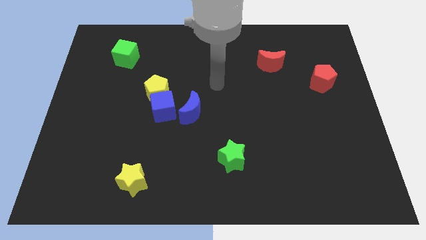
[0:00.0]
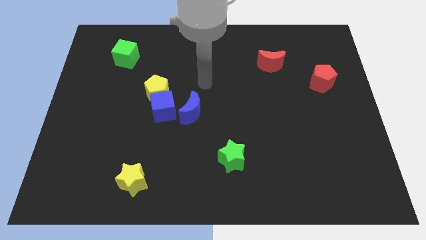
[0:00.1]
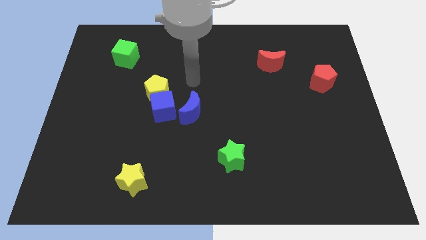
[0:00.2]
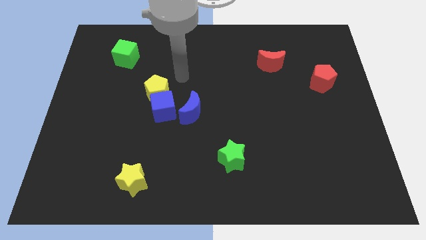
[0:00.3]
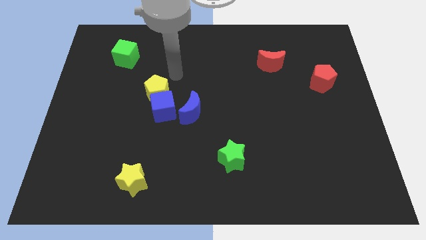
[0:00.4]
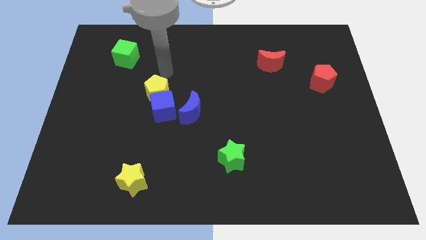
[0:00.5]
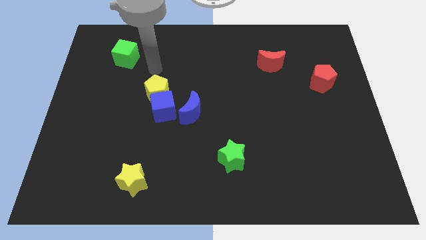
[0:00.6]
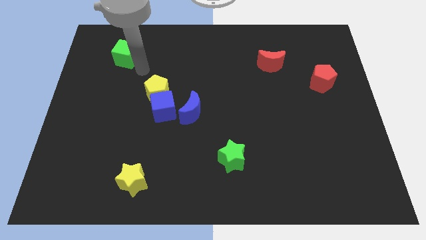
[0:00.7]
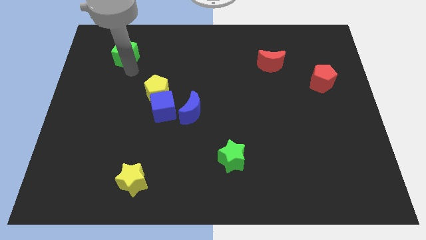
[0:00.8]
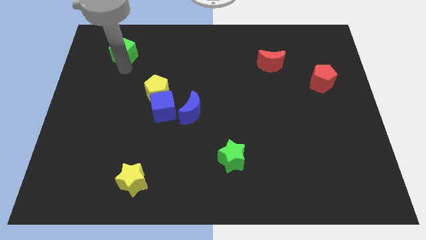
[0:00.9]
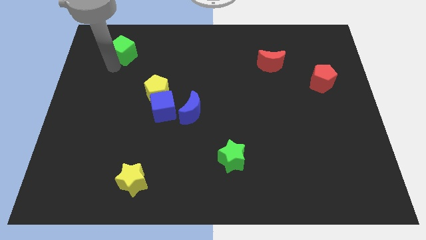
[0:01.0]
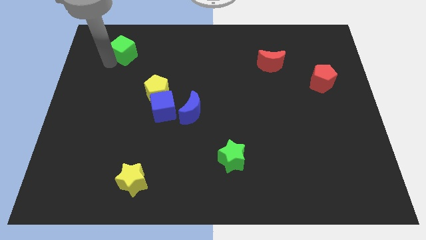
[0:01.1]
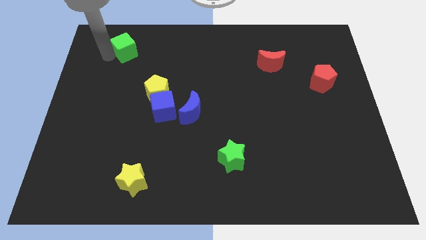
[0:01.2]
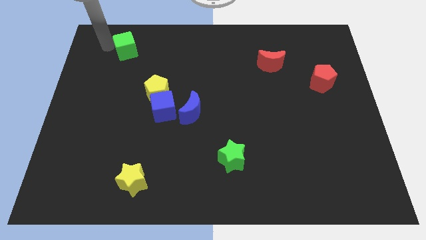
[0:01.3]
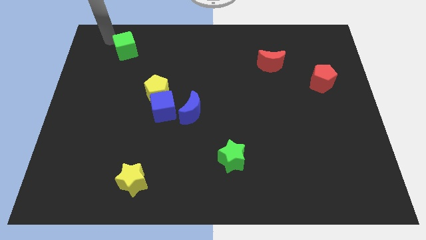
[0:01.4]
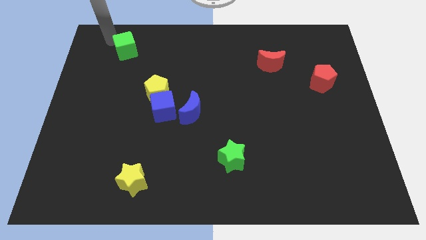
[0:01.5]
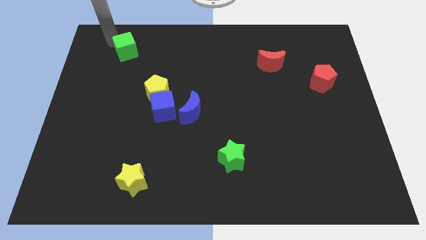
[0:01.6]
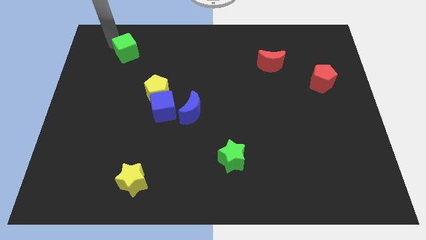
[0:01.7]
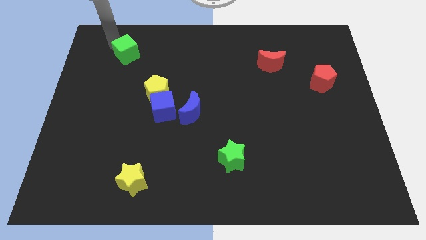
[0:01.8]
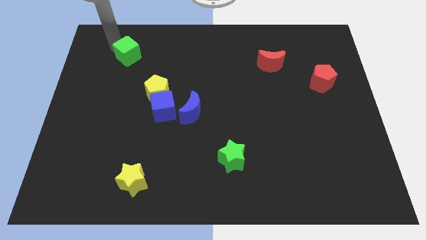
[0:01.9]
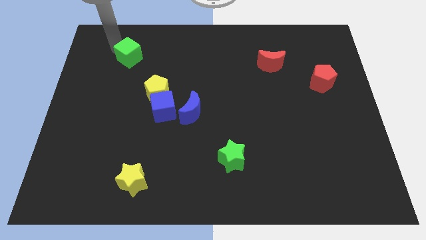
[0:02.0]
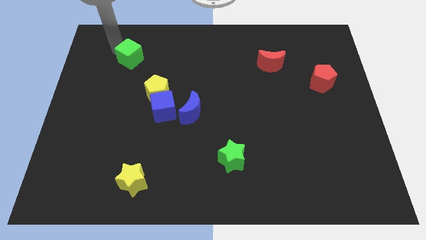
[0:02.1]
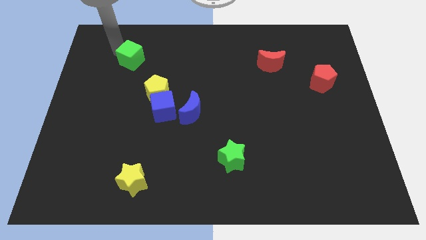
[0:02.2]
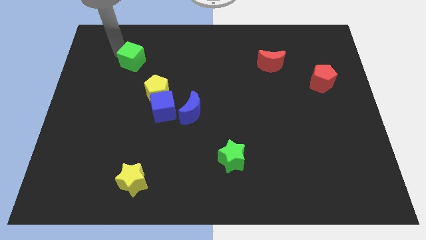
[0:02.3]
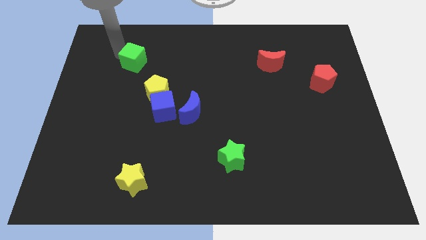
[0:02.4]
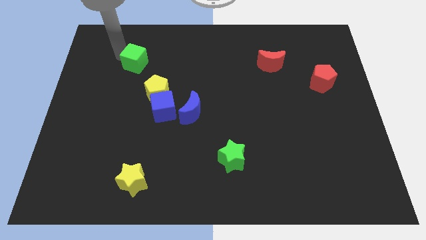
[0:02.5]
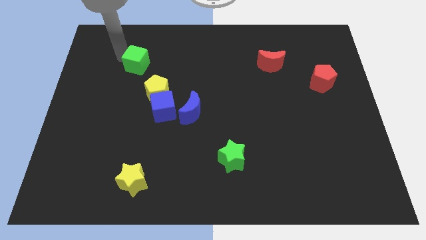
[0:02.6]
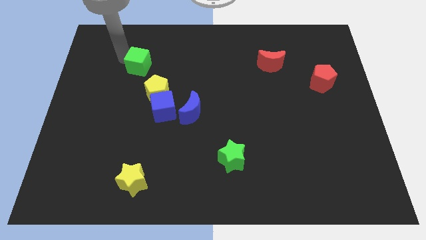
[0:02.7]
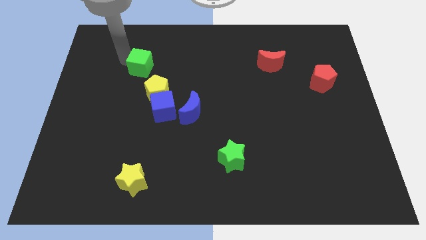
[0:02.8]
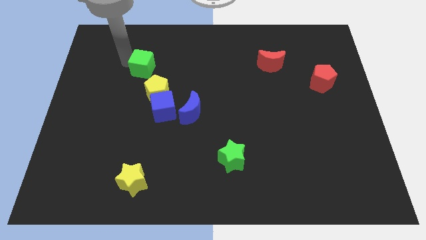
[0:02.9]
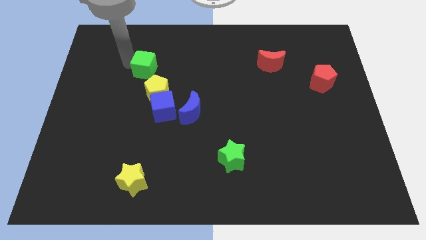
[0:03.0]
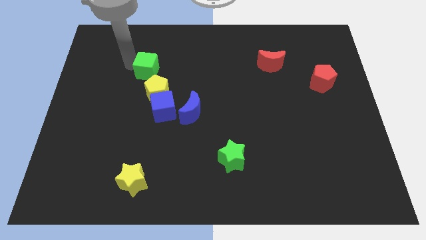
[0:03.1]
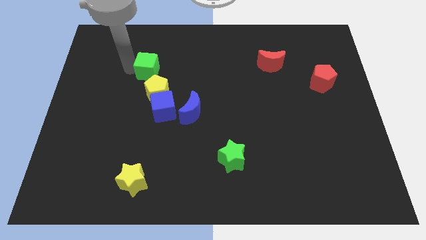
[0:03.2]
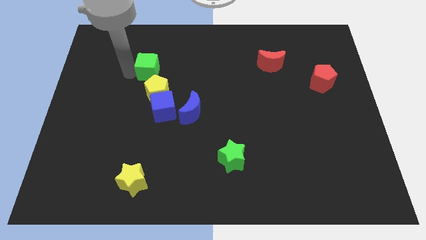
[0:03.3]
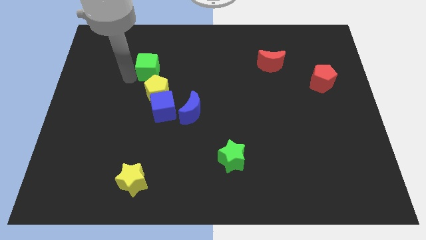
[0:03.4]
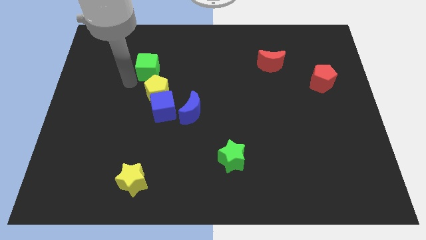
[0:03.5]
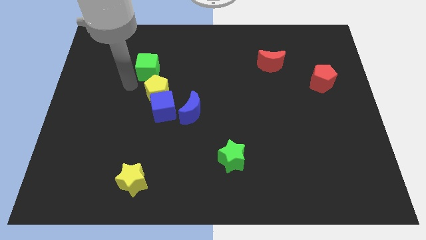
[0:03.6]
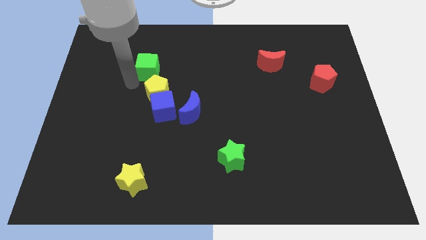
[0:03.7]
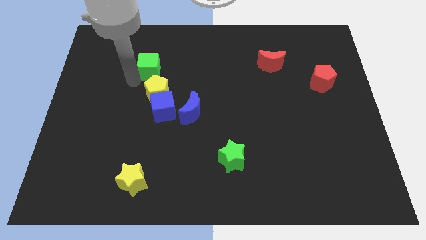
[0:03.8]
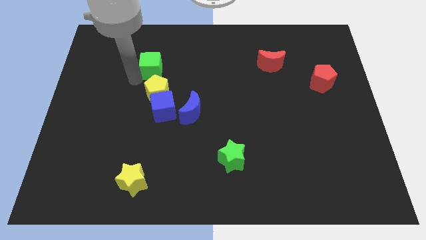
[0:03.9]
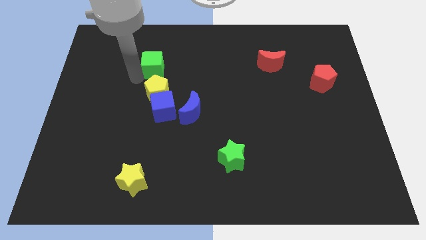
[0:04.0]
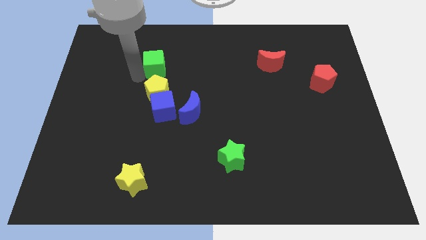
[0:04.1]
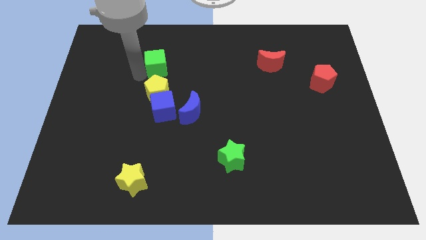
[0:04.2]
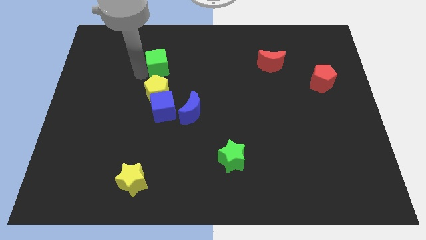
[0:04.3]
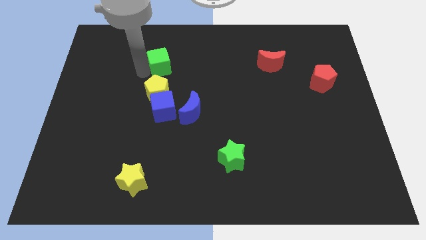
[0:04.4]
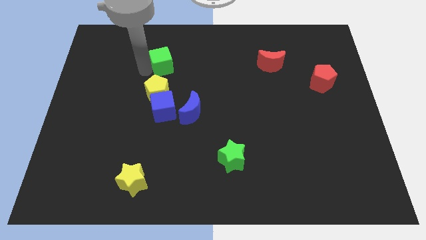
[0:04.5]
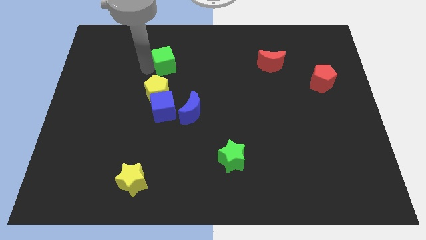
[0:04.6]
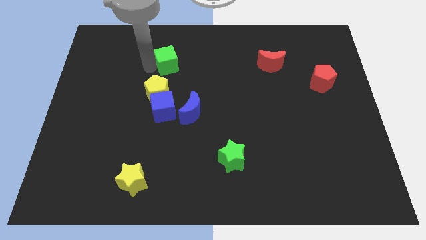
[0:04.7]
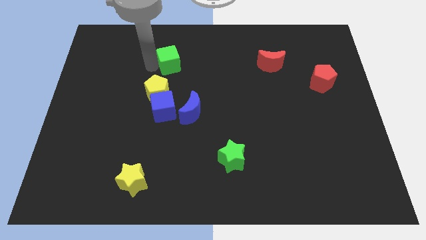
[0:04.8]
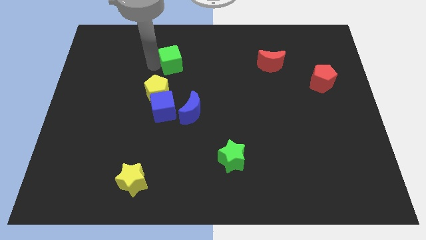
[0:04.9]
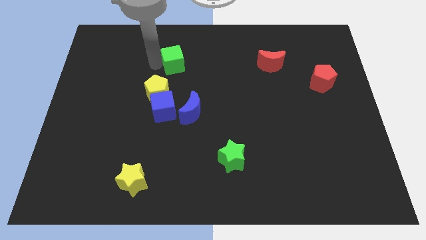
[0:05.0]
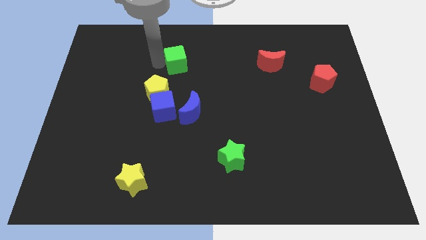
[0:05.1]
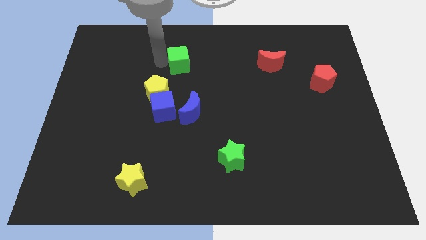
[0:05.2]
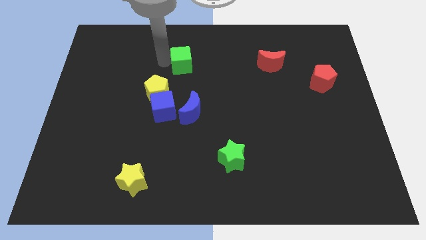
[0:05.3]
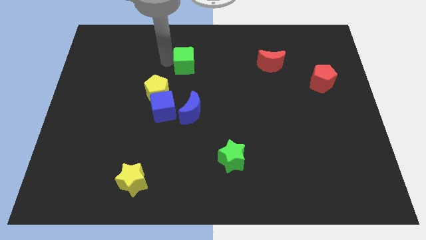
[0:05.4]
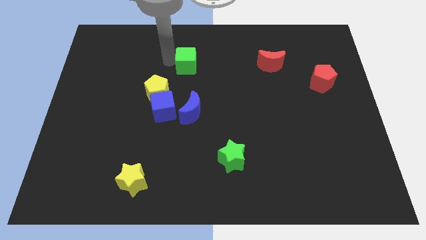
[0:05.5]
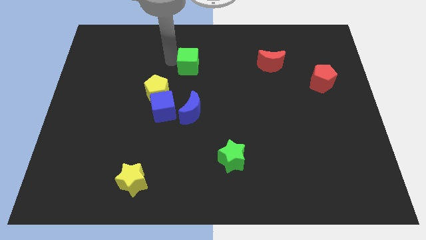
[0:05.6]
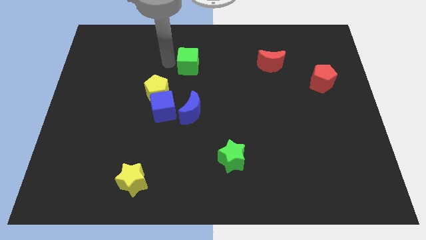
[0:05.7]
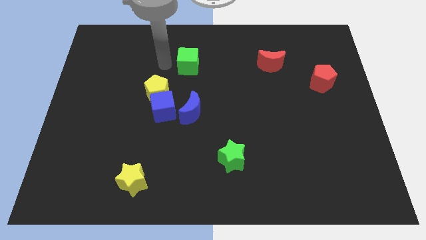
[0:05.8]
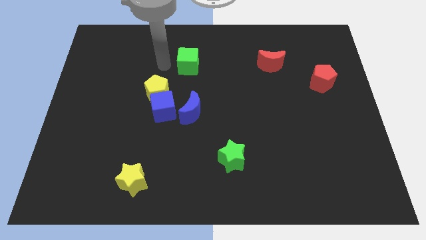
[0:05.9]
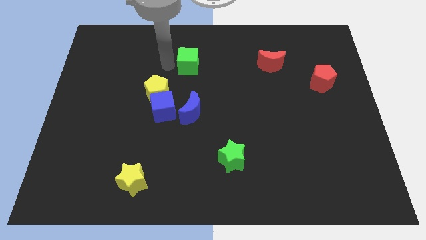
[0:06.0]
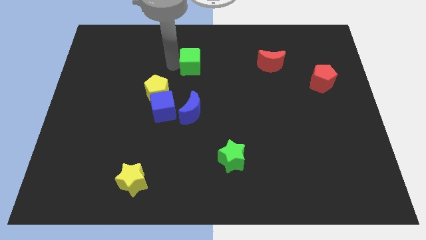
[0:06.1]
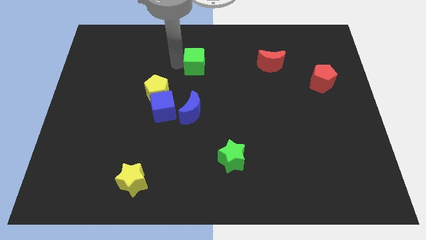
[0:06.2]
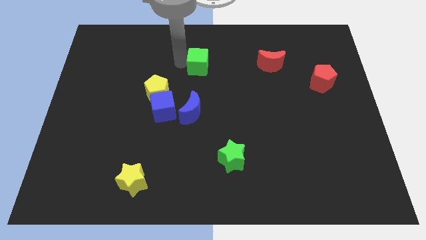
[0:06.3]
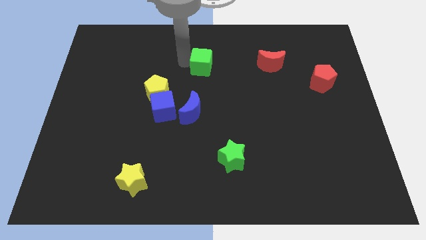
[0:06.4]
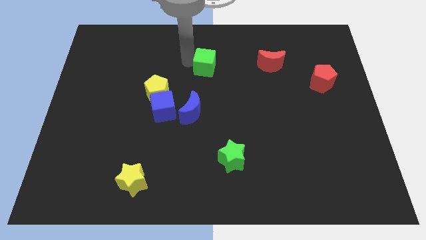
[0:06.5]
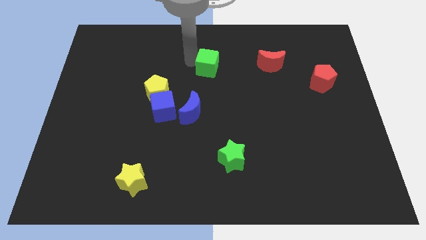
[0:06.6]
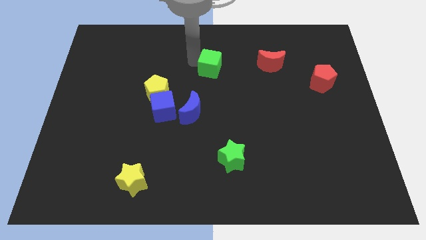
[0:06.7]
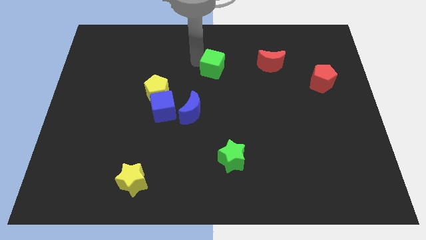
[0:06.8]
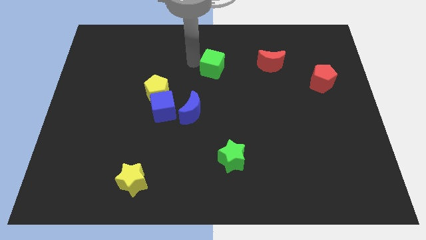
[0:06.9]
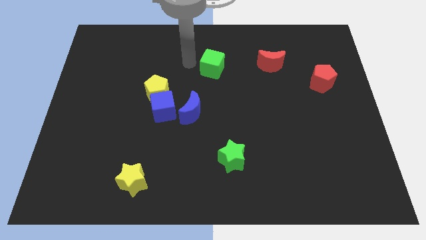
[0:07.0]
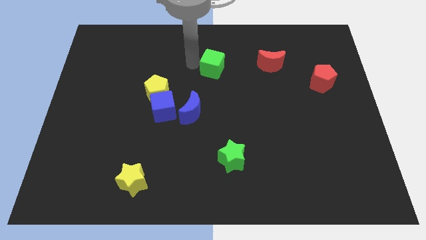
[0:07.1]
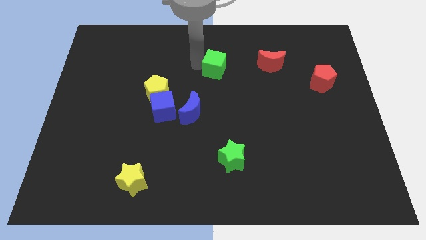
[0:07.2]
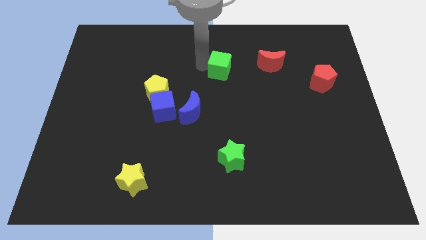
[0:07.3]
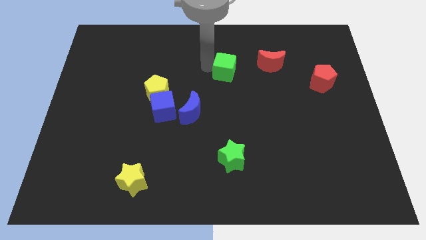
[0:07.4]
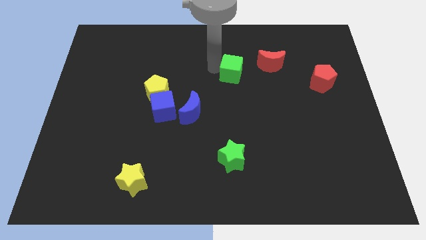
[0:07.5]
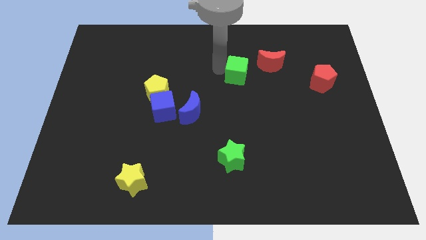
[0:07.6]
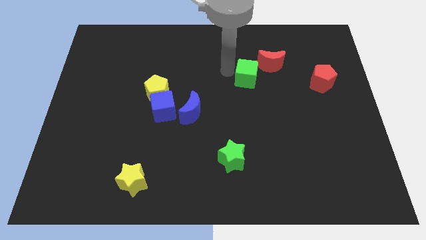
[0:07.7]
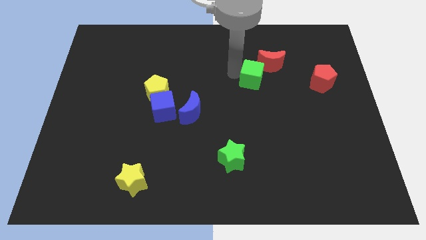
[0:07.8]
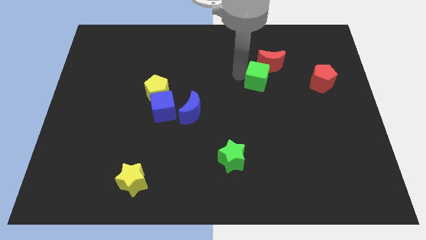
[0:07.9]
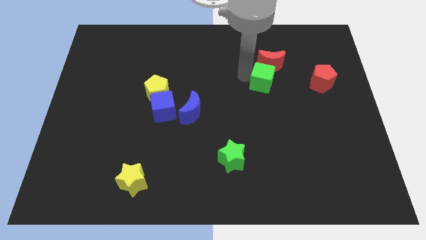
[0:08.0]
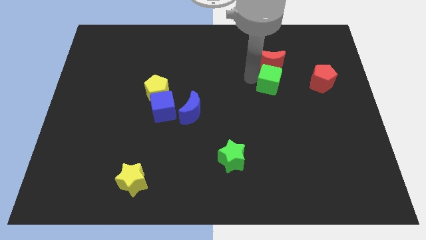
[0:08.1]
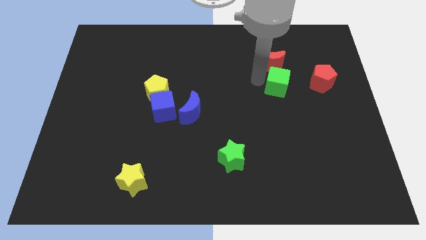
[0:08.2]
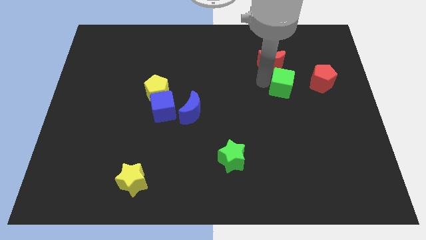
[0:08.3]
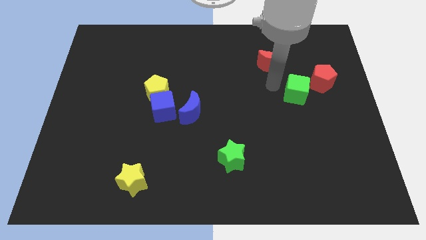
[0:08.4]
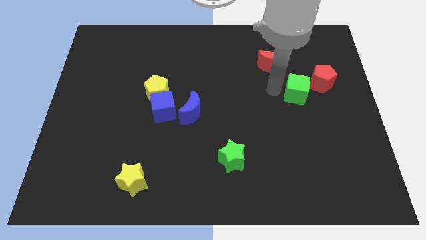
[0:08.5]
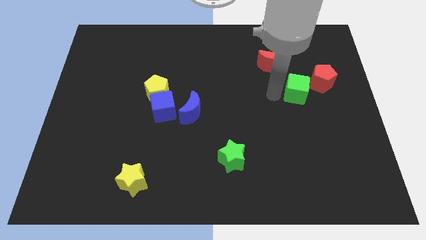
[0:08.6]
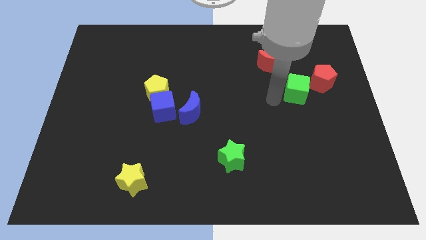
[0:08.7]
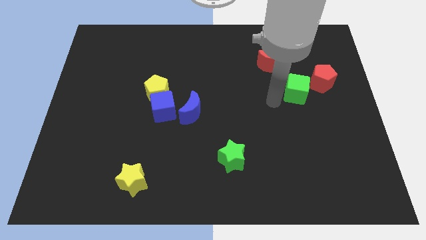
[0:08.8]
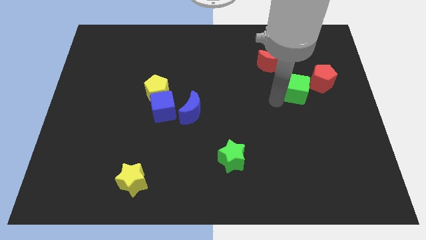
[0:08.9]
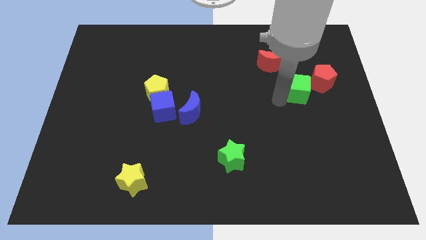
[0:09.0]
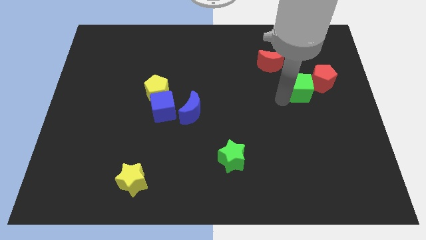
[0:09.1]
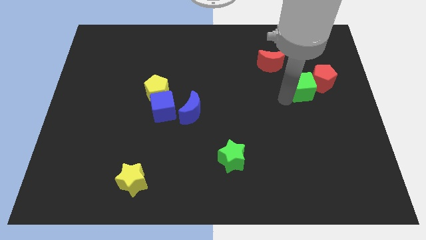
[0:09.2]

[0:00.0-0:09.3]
move the green cube next to the red pentagon
